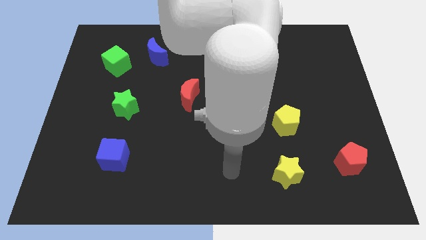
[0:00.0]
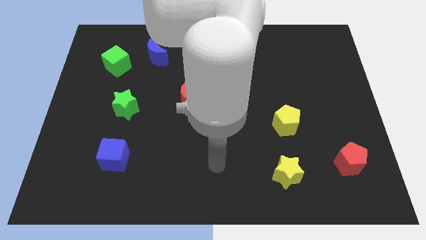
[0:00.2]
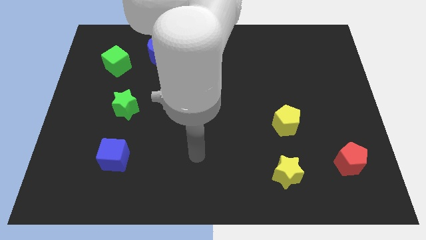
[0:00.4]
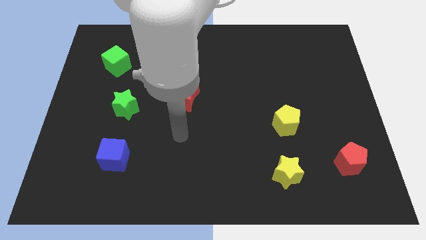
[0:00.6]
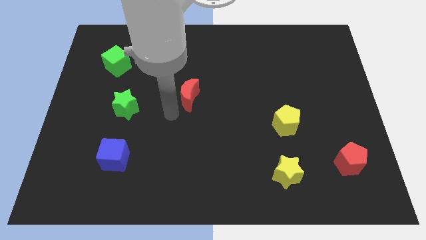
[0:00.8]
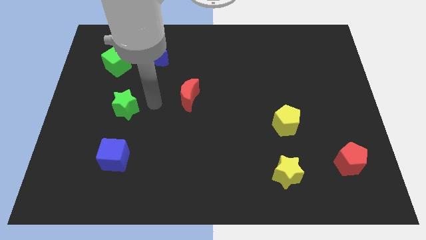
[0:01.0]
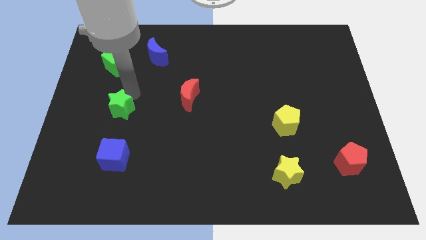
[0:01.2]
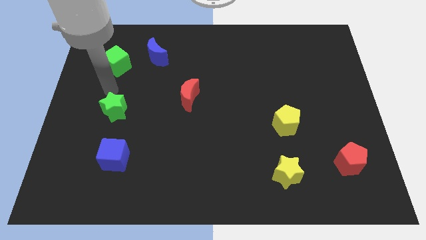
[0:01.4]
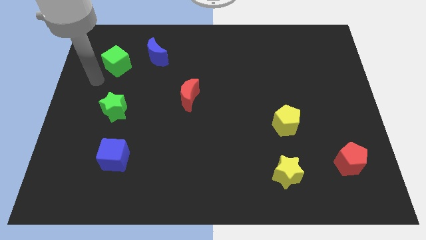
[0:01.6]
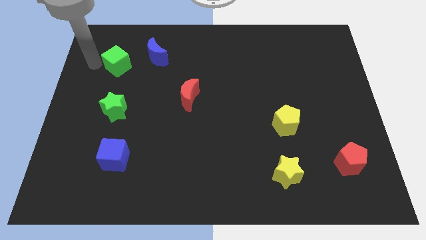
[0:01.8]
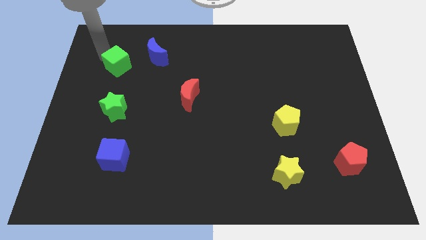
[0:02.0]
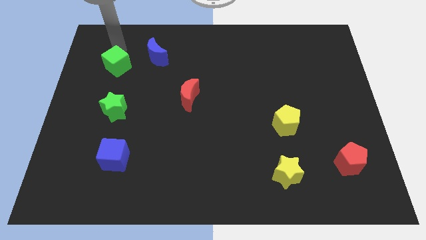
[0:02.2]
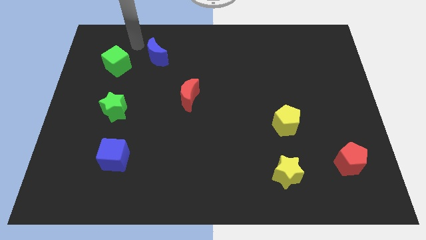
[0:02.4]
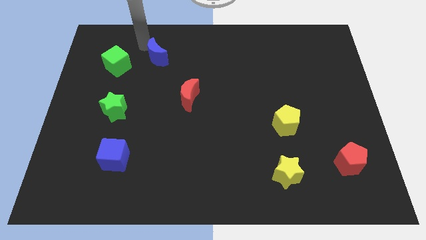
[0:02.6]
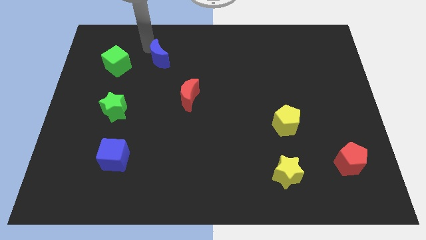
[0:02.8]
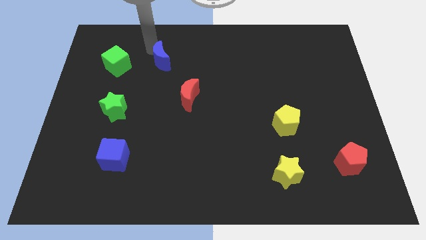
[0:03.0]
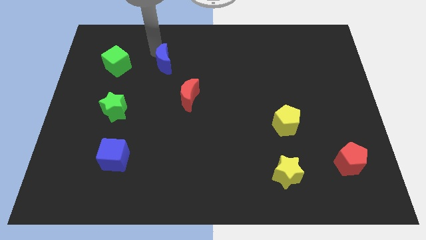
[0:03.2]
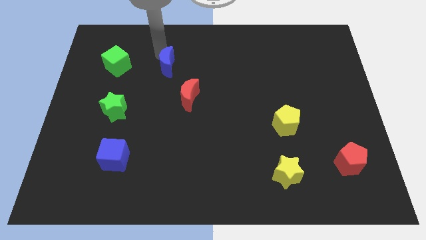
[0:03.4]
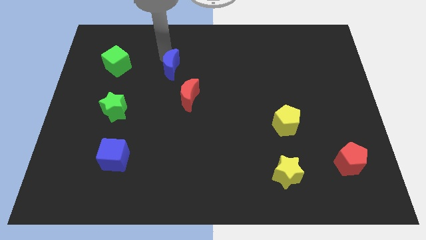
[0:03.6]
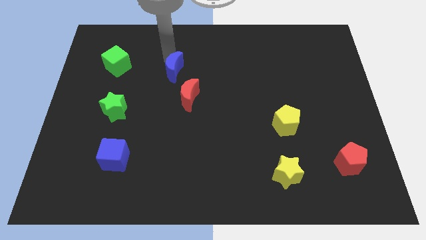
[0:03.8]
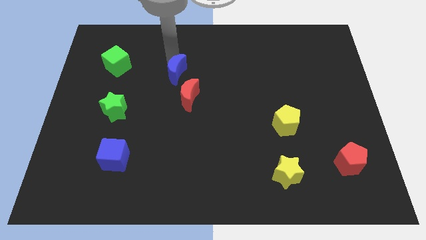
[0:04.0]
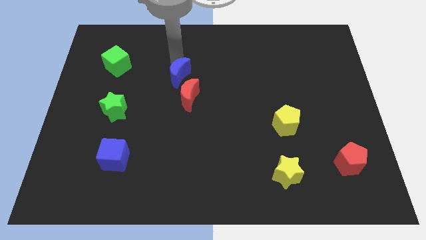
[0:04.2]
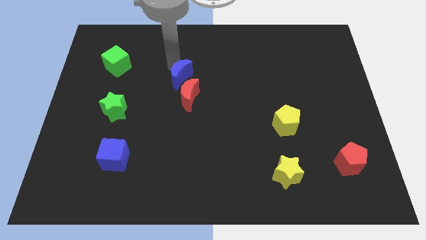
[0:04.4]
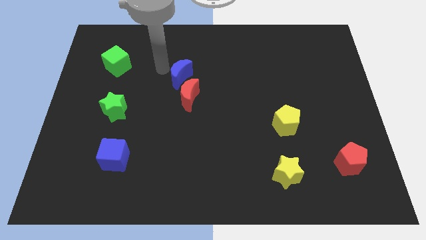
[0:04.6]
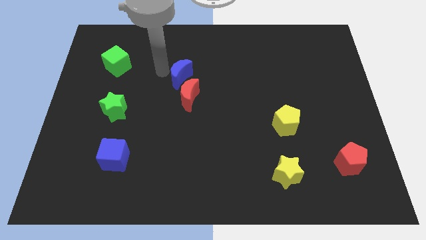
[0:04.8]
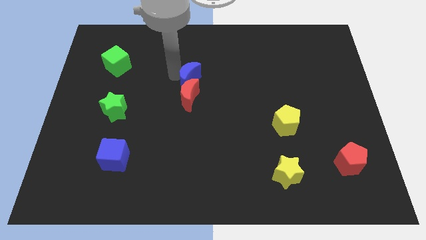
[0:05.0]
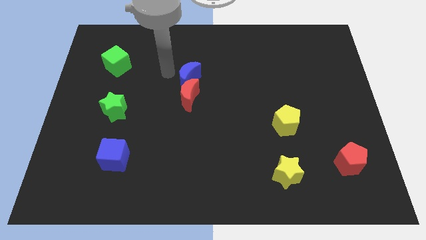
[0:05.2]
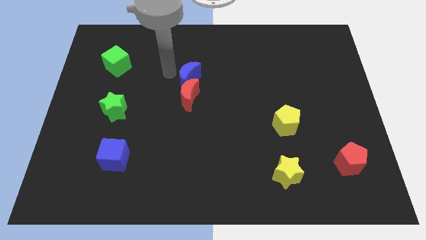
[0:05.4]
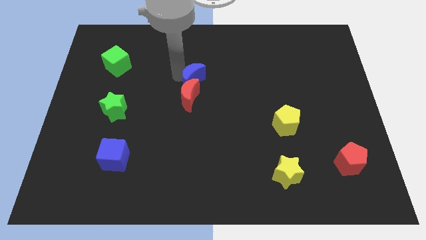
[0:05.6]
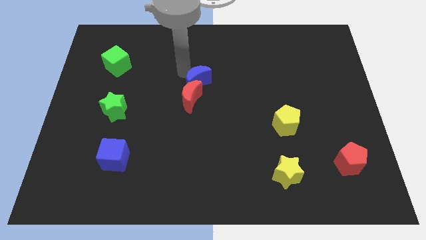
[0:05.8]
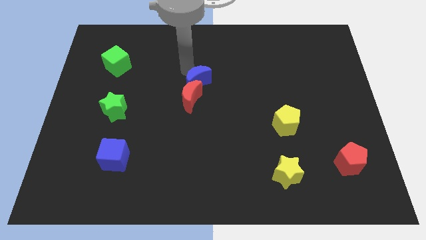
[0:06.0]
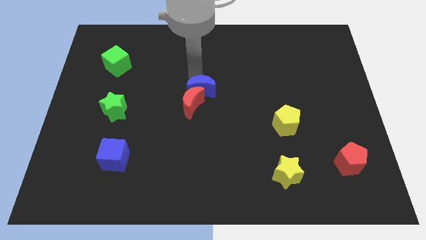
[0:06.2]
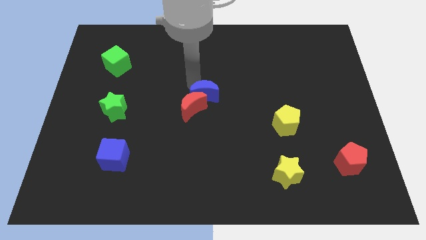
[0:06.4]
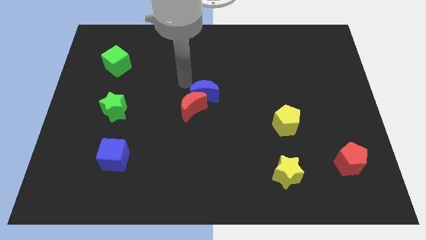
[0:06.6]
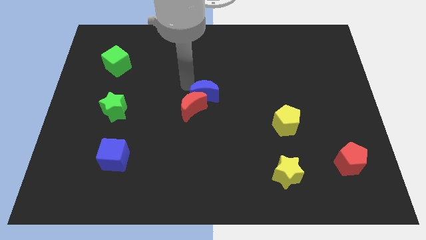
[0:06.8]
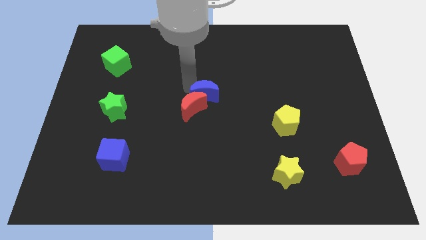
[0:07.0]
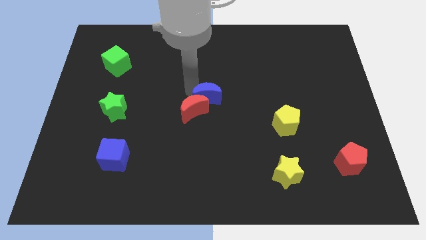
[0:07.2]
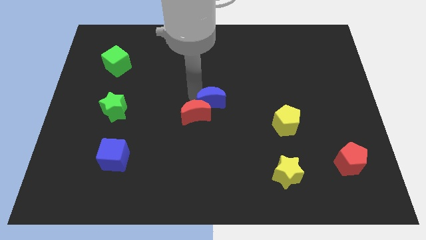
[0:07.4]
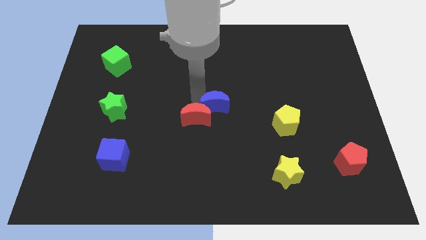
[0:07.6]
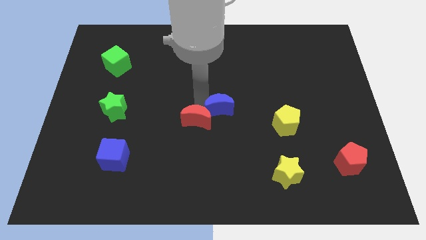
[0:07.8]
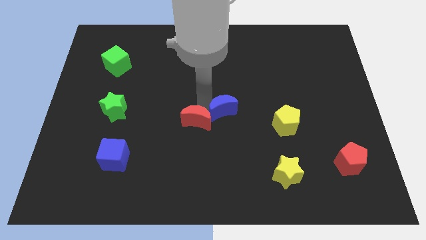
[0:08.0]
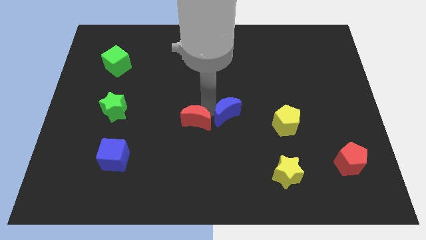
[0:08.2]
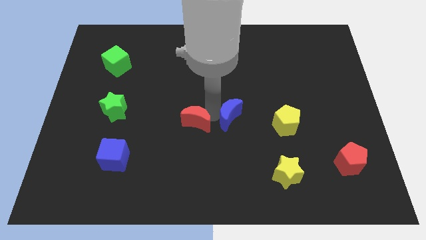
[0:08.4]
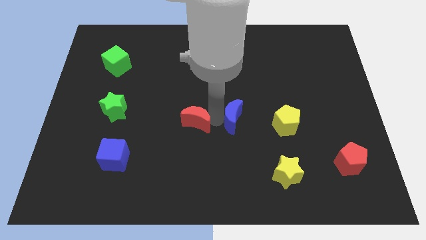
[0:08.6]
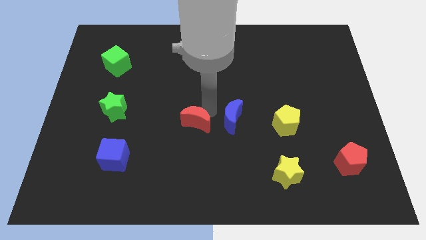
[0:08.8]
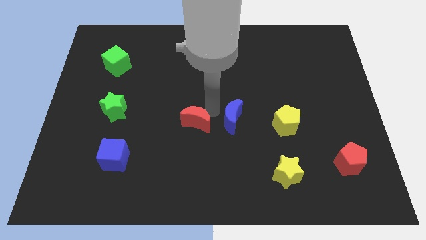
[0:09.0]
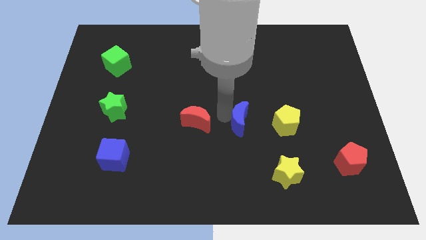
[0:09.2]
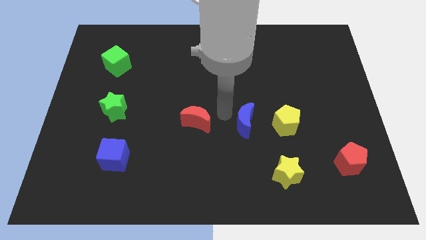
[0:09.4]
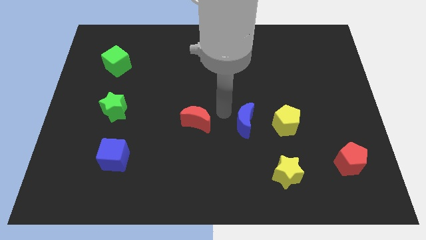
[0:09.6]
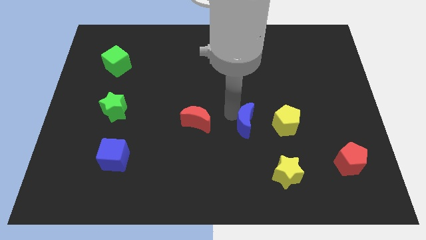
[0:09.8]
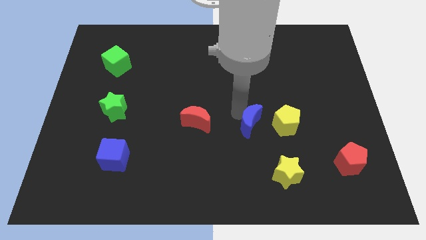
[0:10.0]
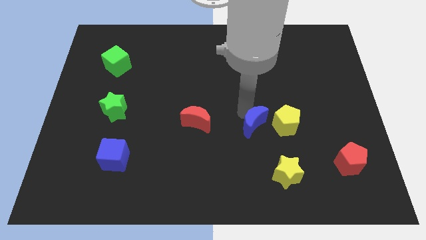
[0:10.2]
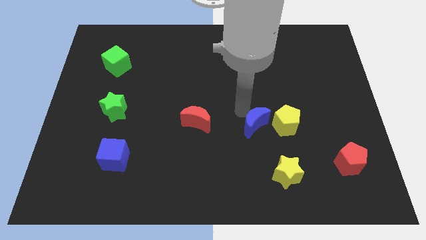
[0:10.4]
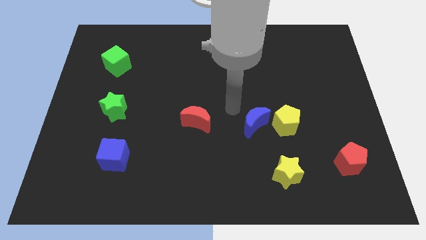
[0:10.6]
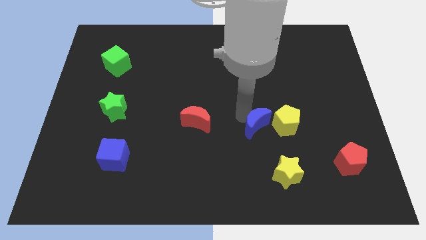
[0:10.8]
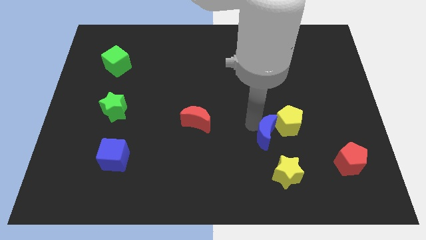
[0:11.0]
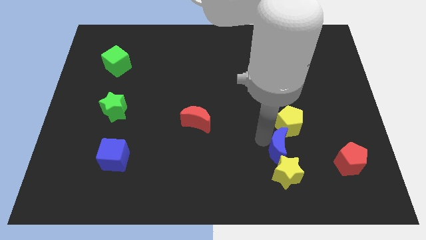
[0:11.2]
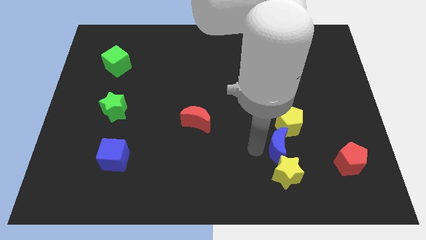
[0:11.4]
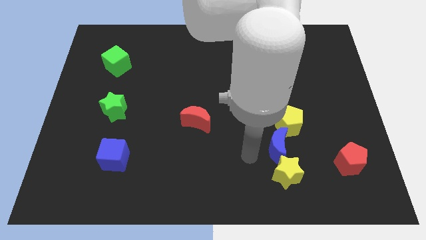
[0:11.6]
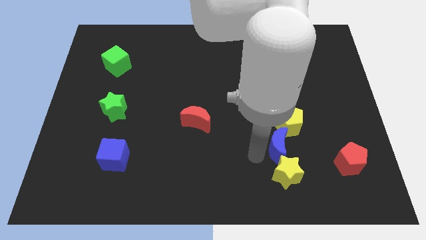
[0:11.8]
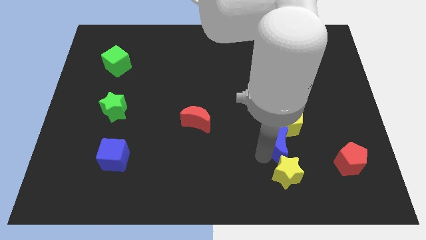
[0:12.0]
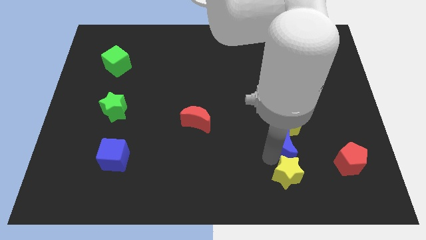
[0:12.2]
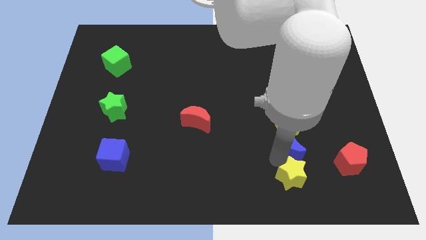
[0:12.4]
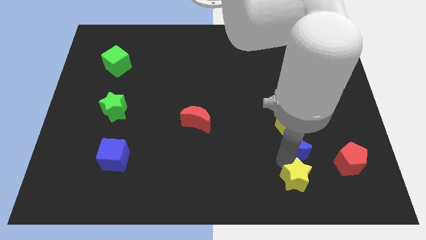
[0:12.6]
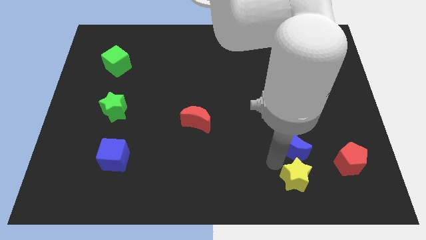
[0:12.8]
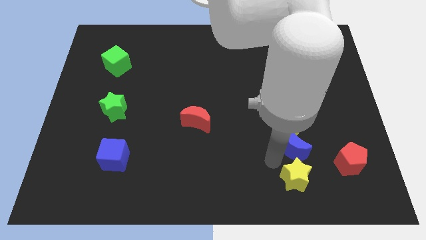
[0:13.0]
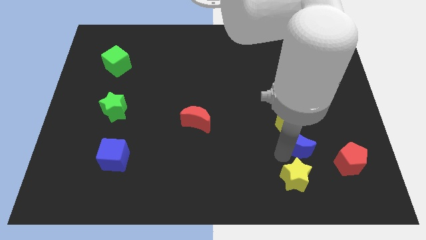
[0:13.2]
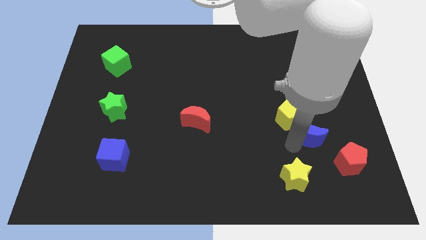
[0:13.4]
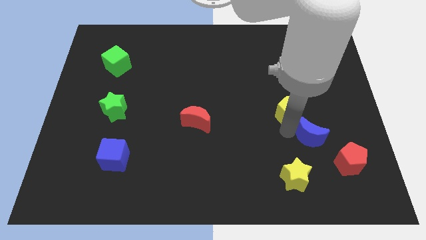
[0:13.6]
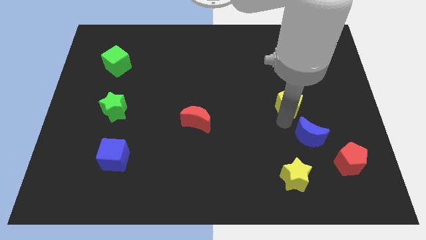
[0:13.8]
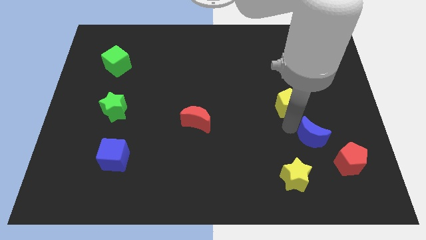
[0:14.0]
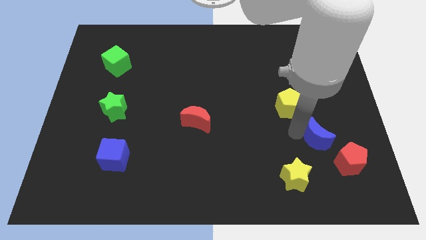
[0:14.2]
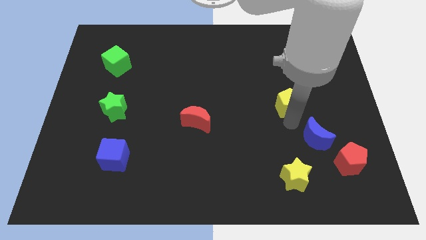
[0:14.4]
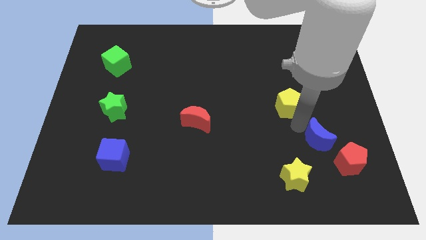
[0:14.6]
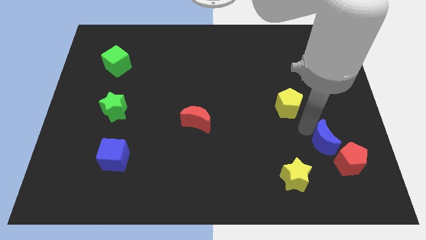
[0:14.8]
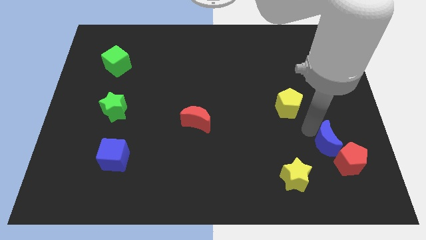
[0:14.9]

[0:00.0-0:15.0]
put the blue moon next to the red pentagon
